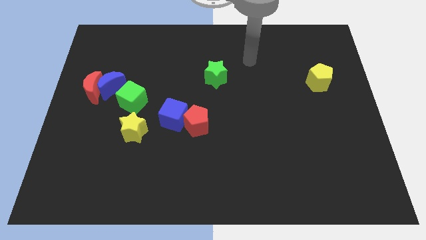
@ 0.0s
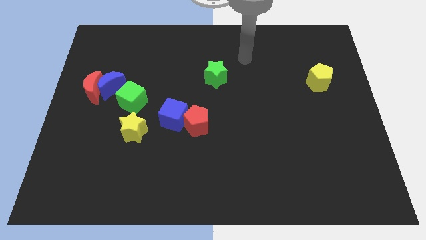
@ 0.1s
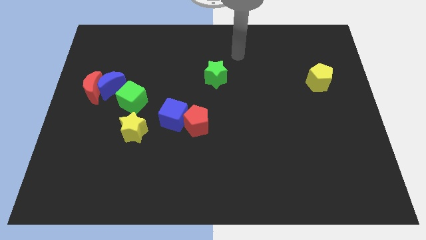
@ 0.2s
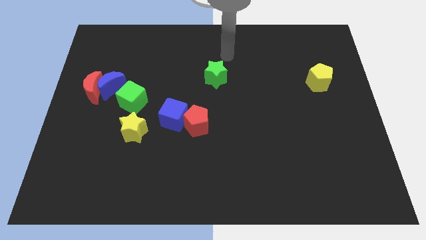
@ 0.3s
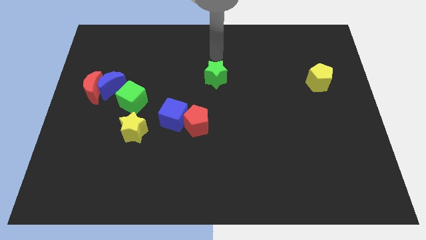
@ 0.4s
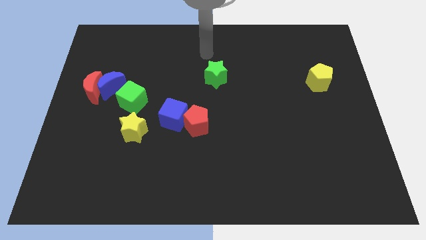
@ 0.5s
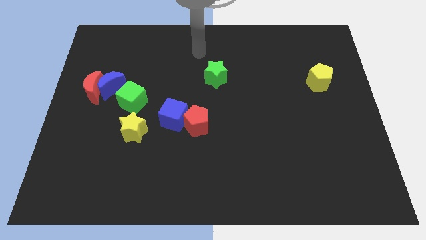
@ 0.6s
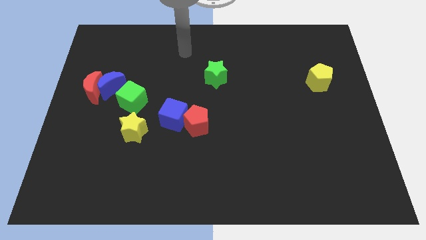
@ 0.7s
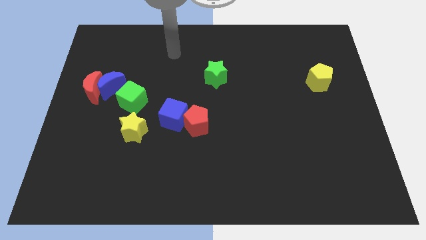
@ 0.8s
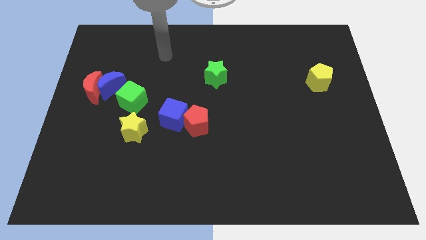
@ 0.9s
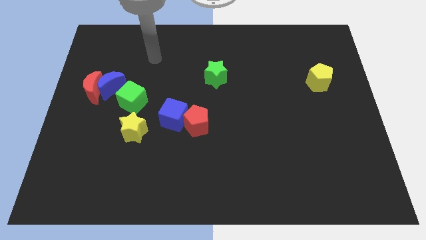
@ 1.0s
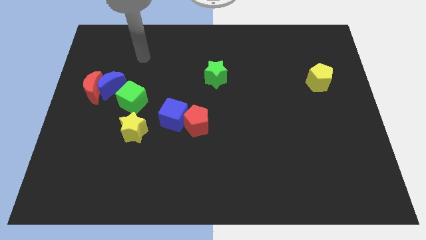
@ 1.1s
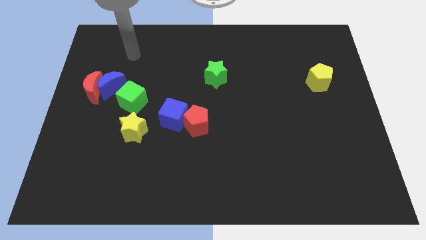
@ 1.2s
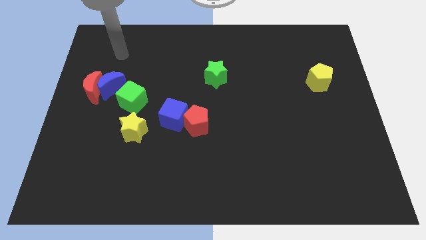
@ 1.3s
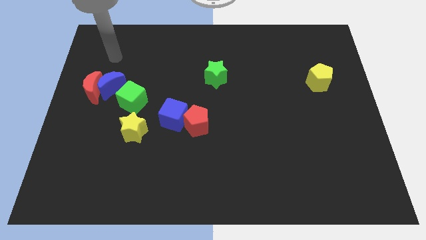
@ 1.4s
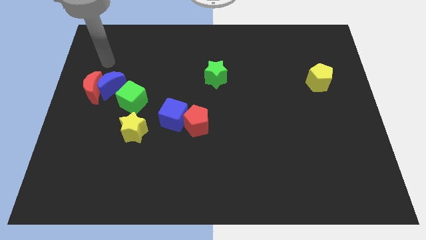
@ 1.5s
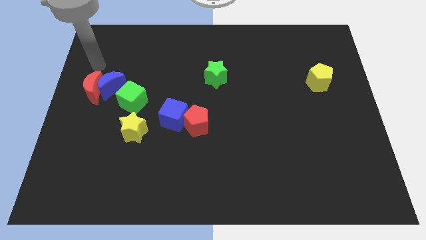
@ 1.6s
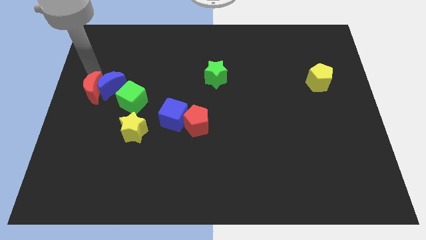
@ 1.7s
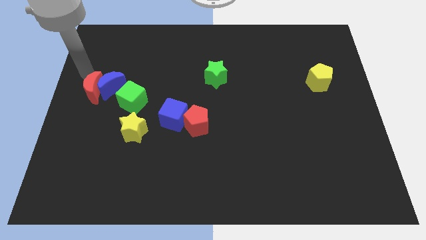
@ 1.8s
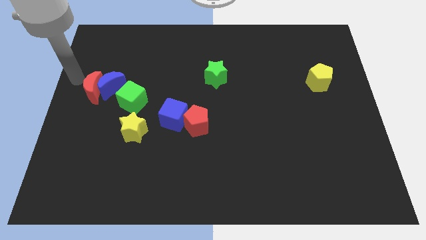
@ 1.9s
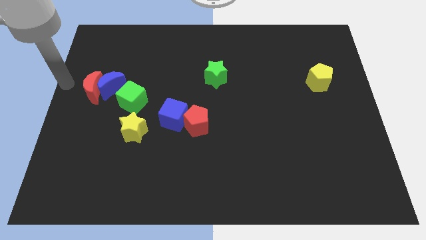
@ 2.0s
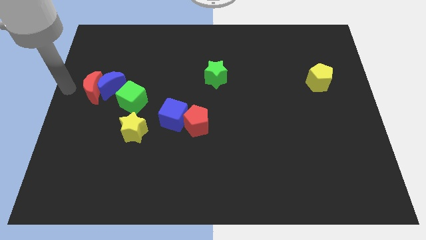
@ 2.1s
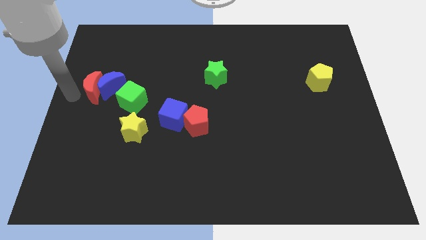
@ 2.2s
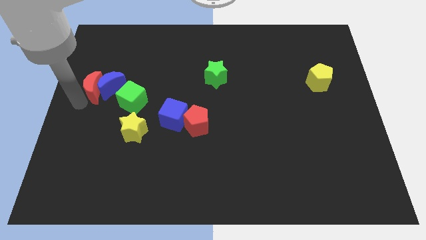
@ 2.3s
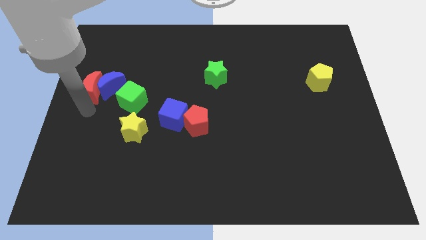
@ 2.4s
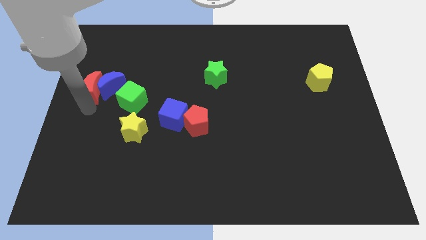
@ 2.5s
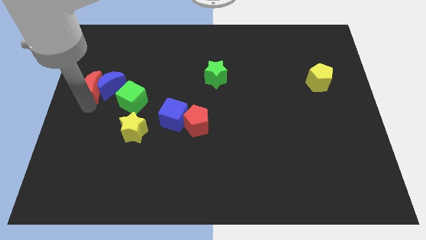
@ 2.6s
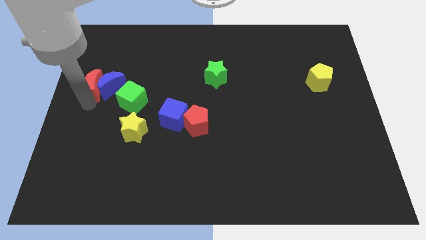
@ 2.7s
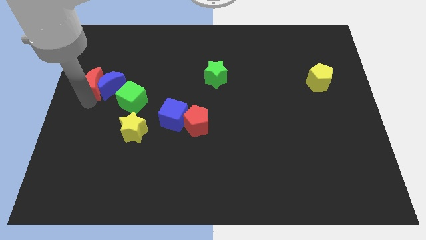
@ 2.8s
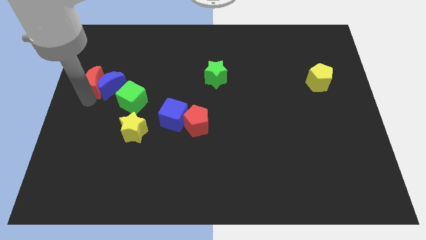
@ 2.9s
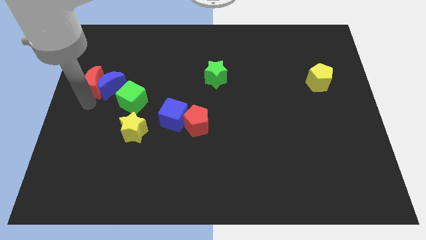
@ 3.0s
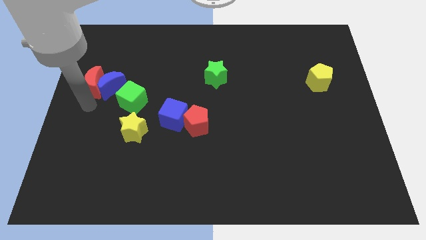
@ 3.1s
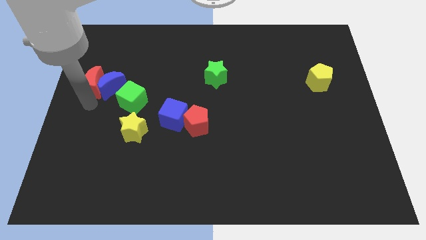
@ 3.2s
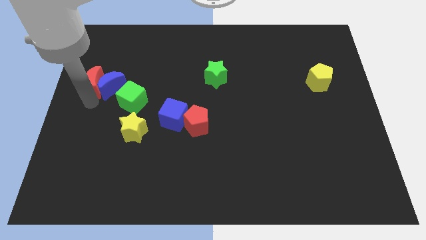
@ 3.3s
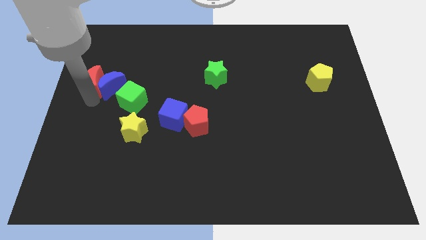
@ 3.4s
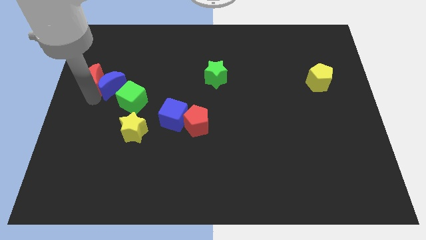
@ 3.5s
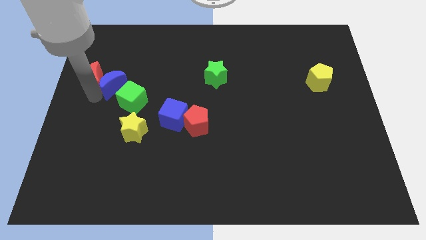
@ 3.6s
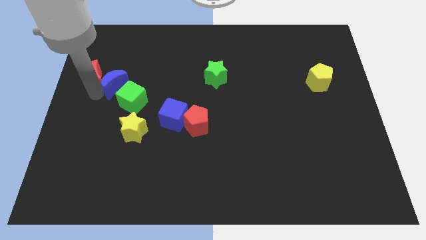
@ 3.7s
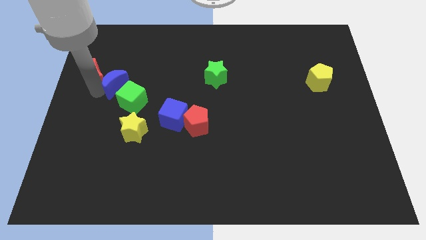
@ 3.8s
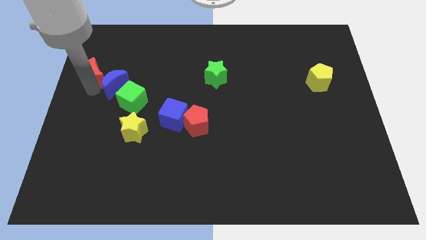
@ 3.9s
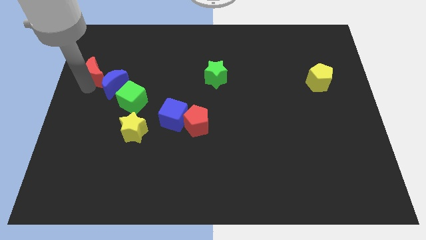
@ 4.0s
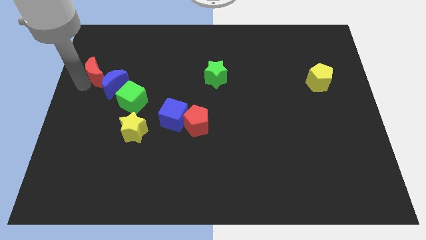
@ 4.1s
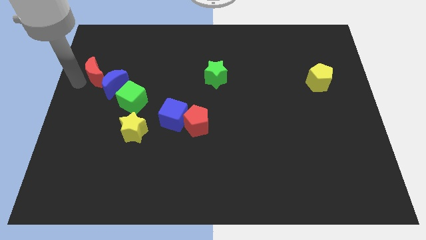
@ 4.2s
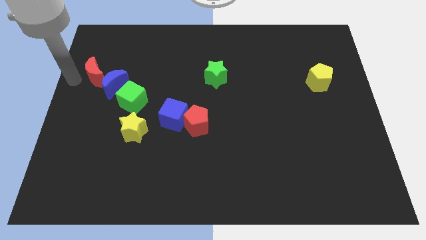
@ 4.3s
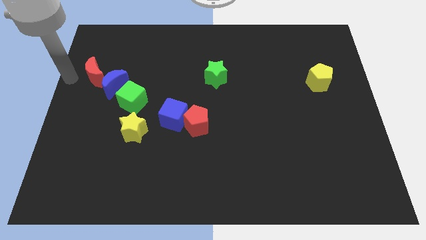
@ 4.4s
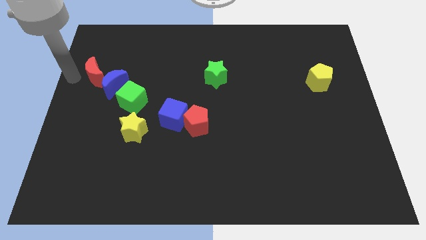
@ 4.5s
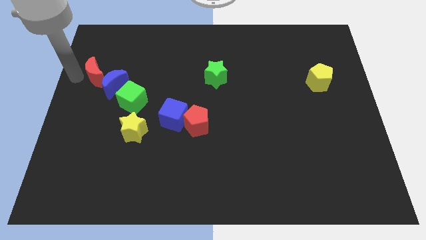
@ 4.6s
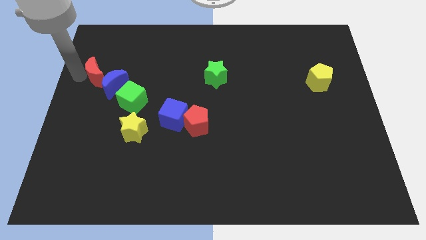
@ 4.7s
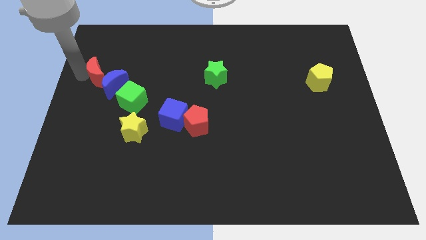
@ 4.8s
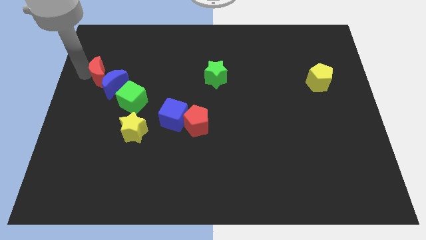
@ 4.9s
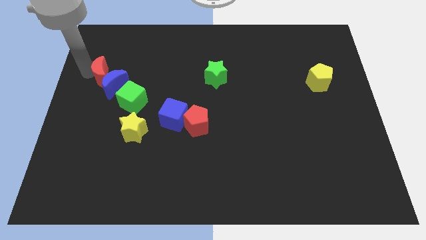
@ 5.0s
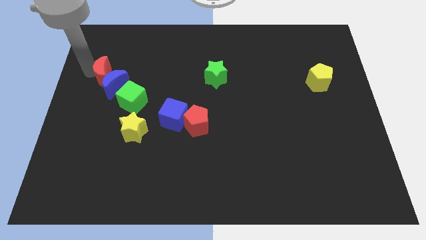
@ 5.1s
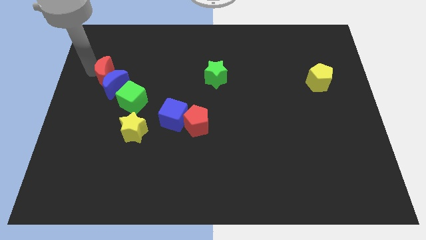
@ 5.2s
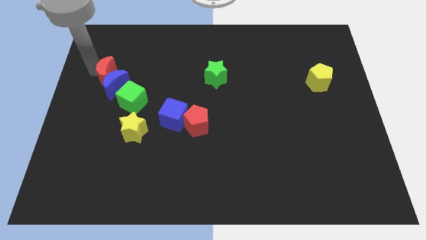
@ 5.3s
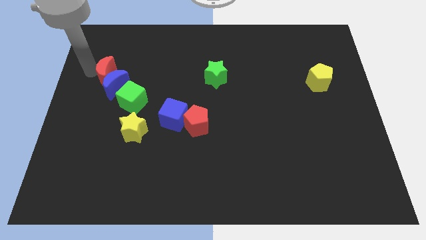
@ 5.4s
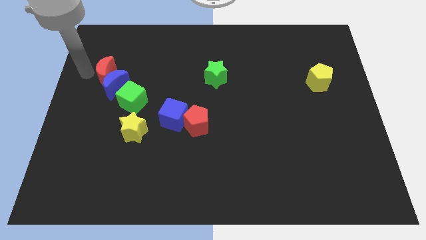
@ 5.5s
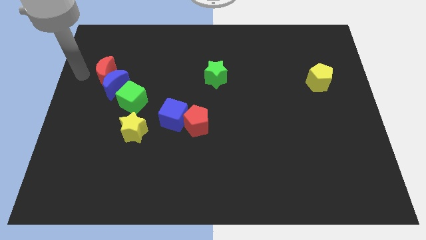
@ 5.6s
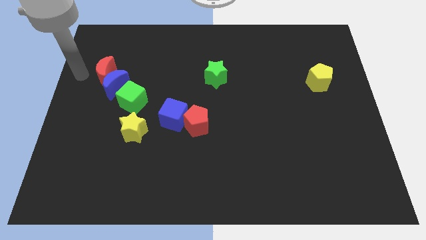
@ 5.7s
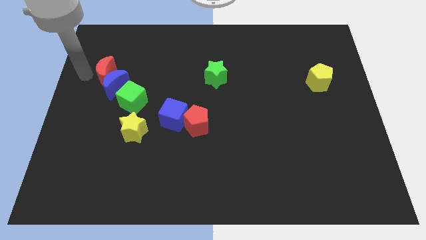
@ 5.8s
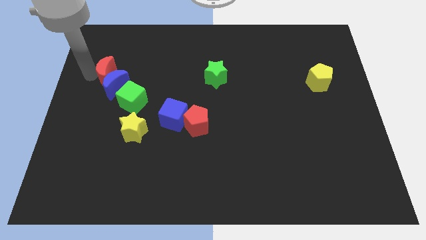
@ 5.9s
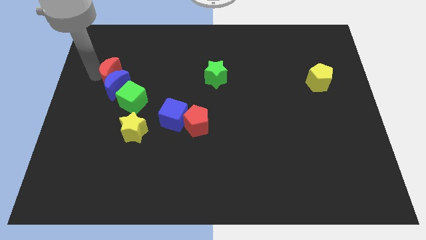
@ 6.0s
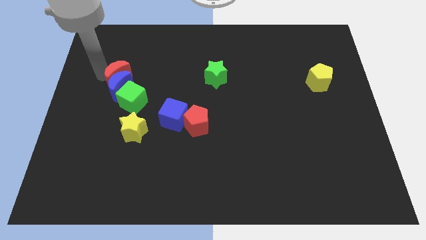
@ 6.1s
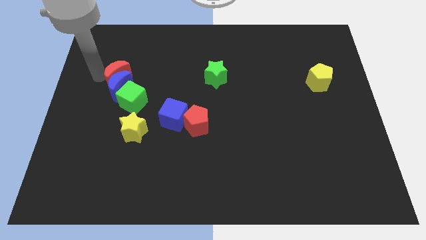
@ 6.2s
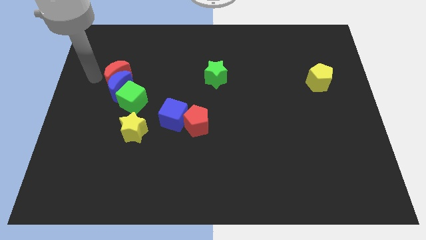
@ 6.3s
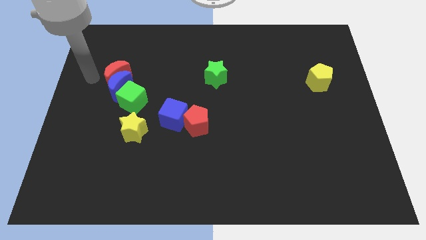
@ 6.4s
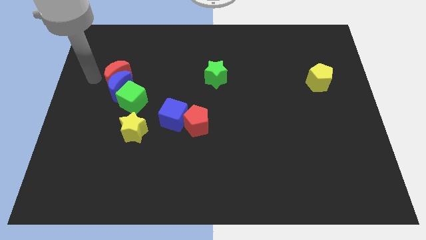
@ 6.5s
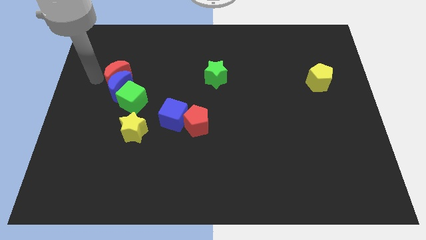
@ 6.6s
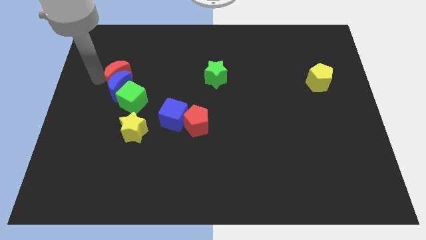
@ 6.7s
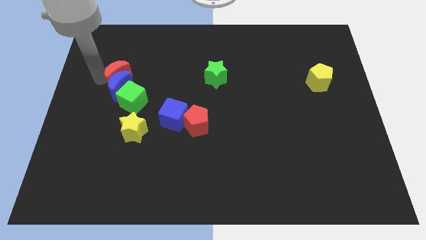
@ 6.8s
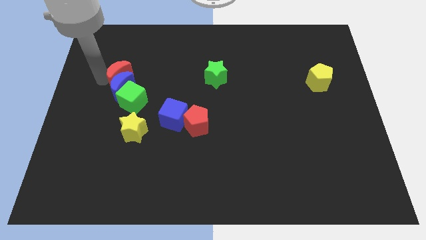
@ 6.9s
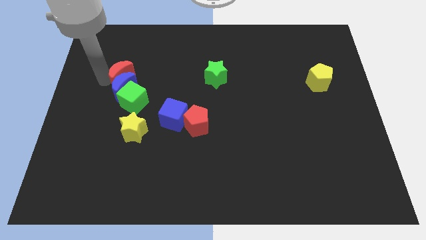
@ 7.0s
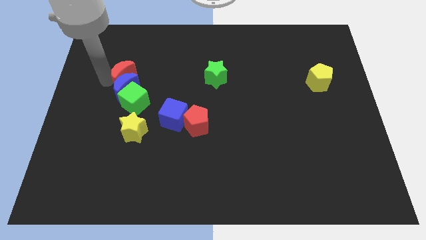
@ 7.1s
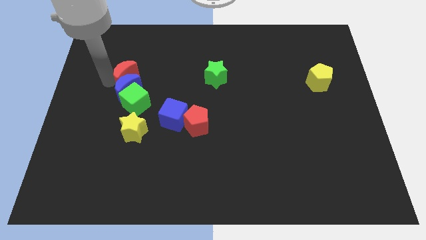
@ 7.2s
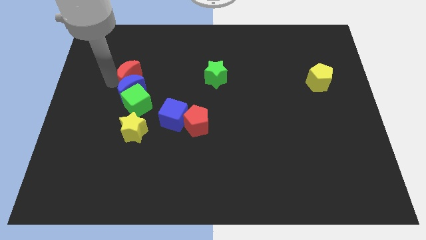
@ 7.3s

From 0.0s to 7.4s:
move the red moon a little to the right

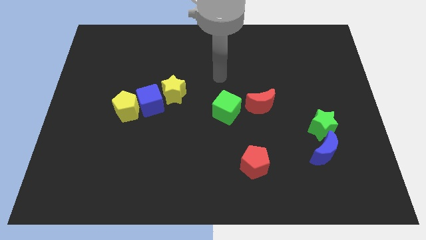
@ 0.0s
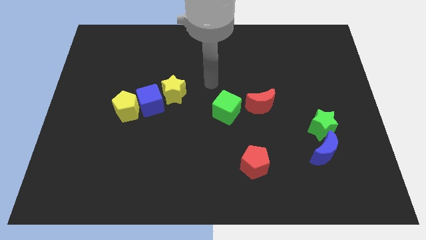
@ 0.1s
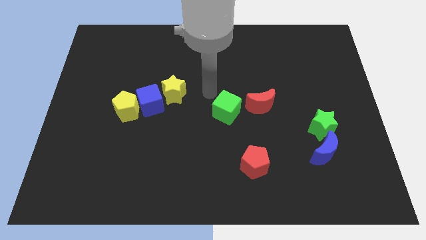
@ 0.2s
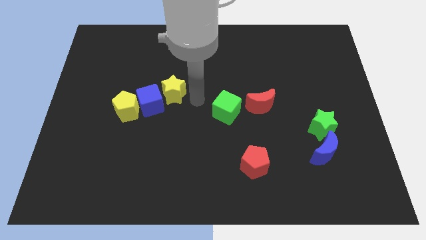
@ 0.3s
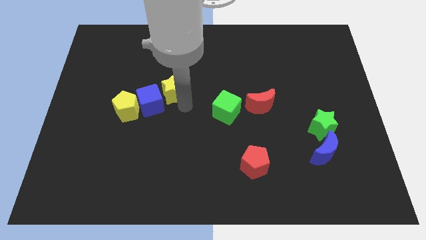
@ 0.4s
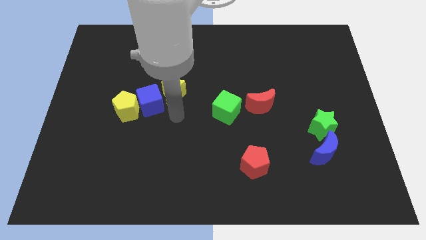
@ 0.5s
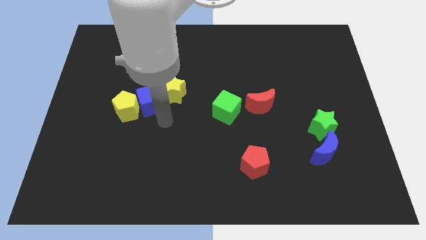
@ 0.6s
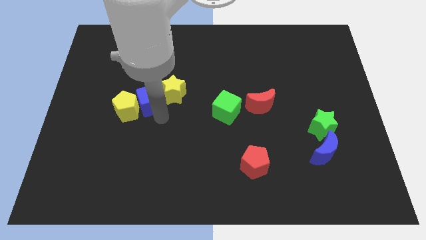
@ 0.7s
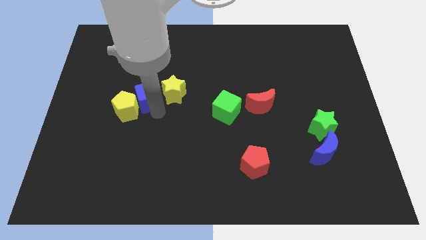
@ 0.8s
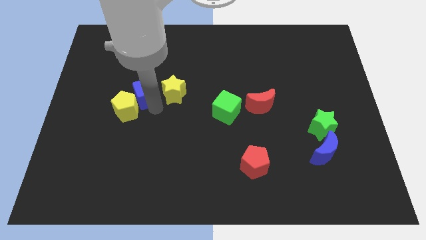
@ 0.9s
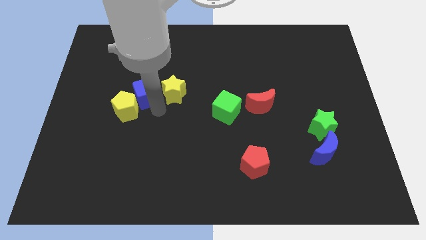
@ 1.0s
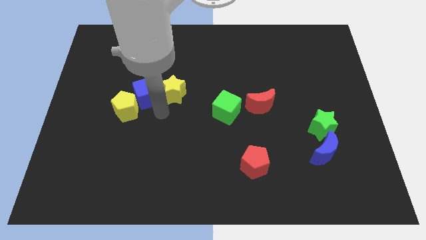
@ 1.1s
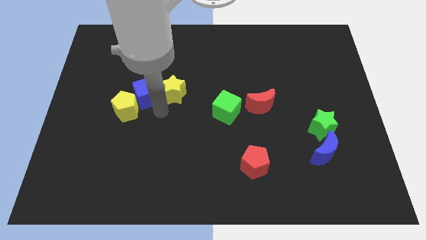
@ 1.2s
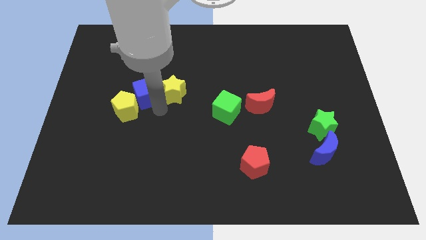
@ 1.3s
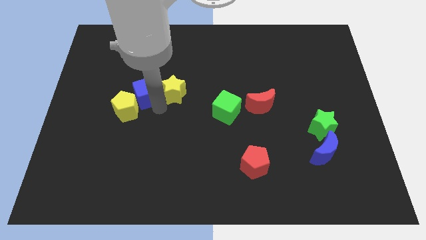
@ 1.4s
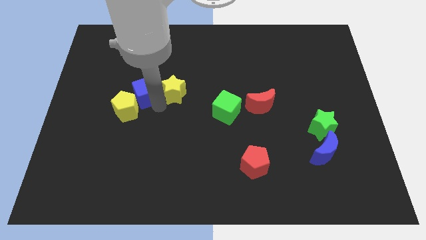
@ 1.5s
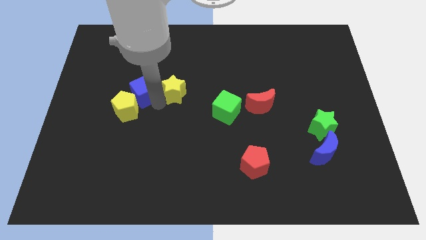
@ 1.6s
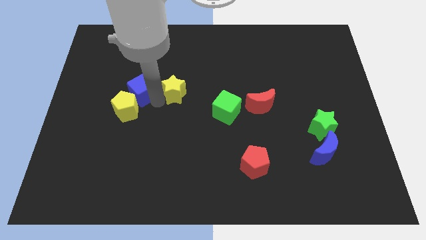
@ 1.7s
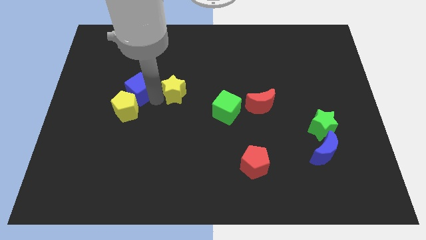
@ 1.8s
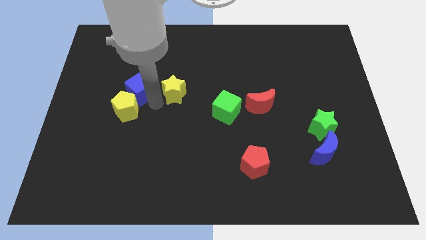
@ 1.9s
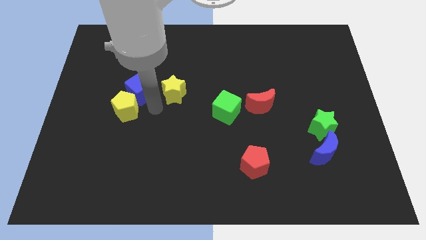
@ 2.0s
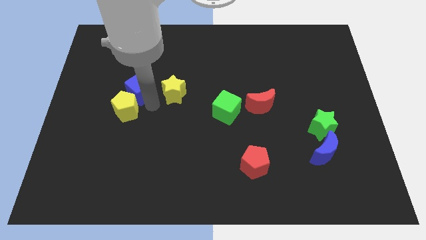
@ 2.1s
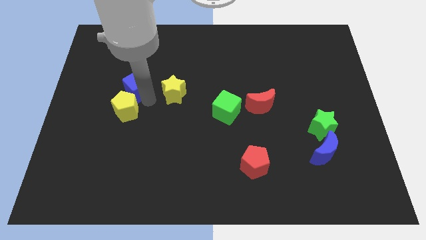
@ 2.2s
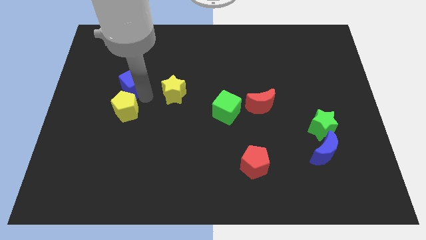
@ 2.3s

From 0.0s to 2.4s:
slightly slide the blue cube up and then to the left
